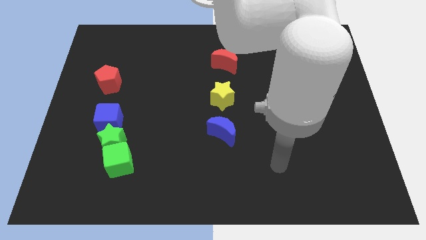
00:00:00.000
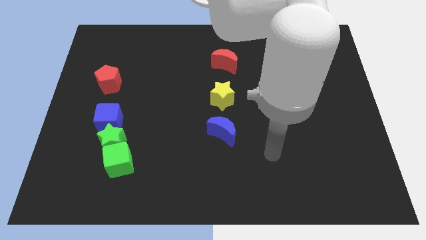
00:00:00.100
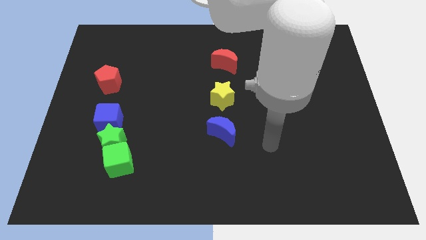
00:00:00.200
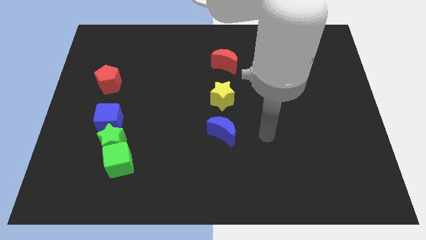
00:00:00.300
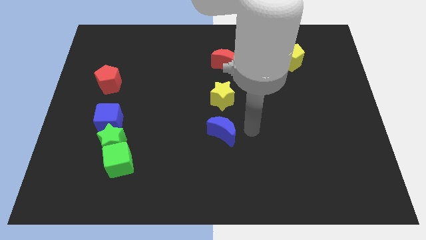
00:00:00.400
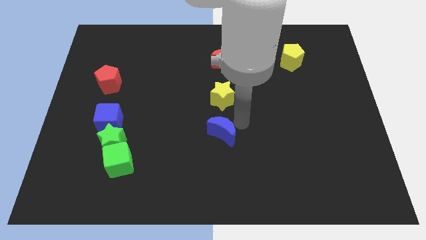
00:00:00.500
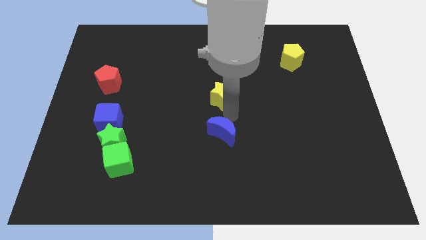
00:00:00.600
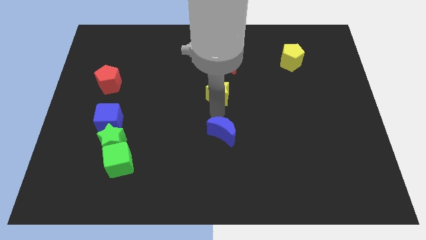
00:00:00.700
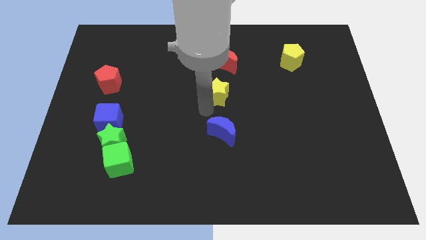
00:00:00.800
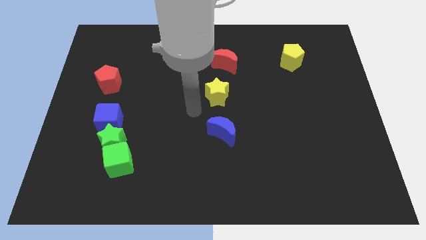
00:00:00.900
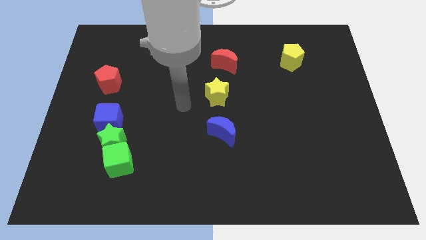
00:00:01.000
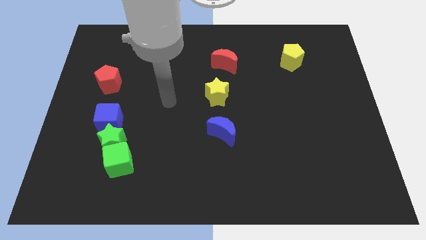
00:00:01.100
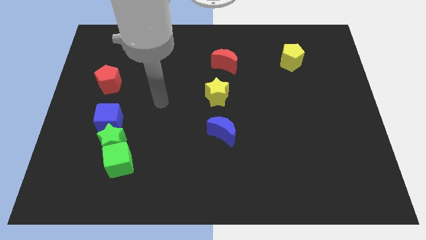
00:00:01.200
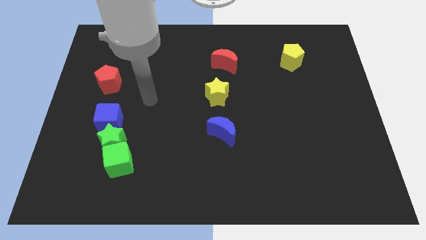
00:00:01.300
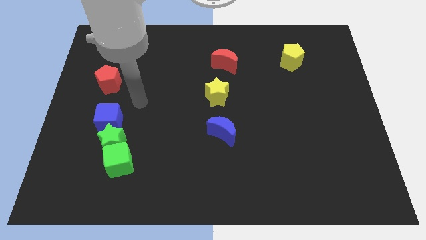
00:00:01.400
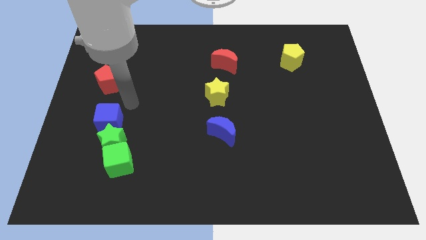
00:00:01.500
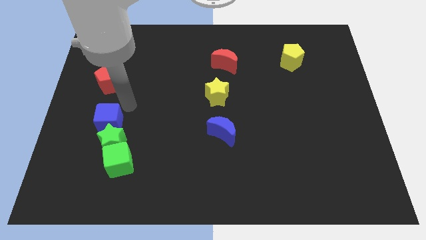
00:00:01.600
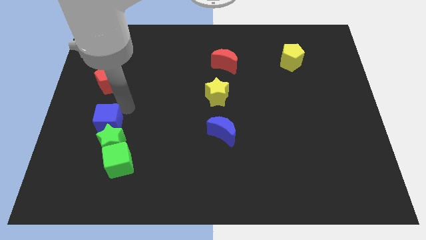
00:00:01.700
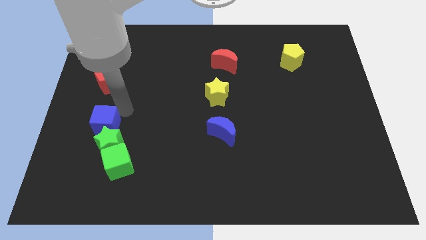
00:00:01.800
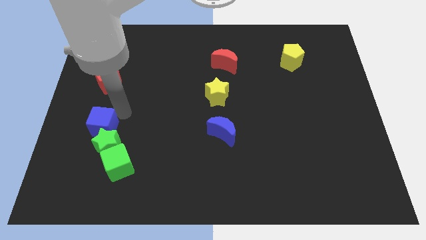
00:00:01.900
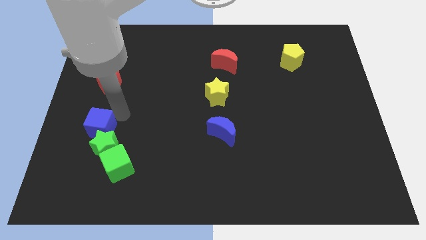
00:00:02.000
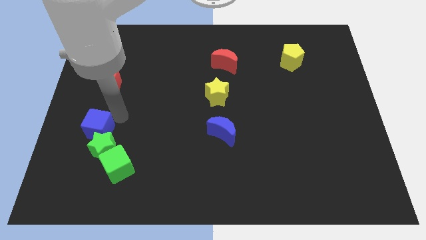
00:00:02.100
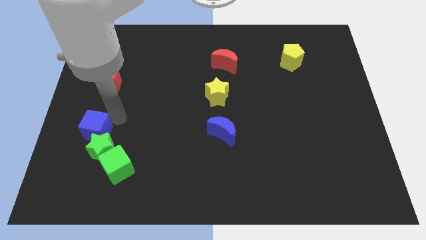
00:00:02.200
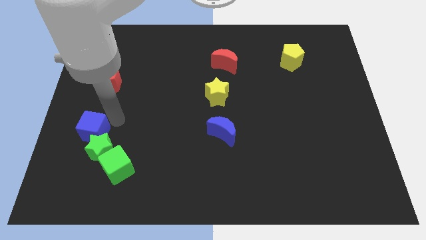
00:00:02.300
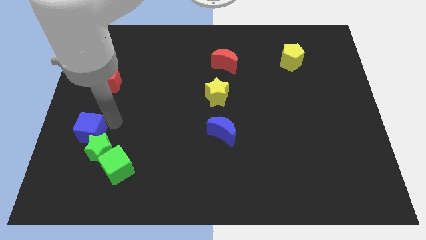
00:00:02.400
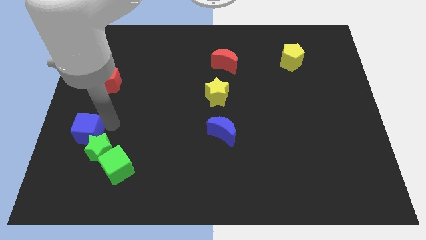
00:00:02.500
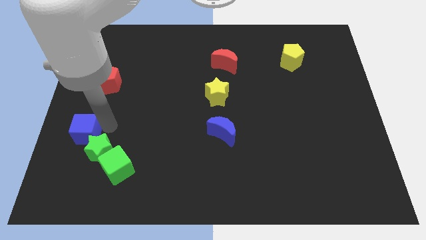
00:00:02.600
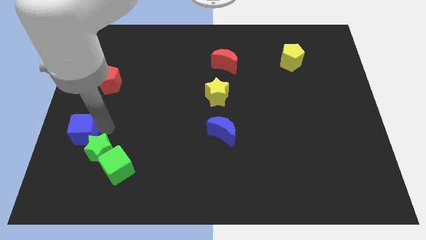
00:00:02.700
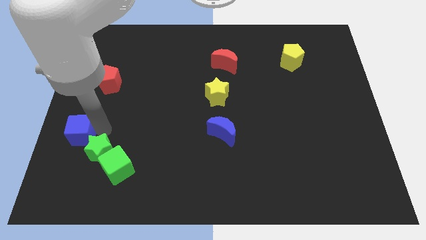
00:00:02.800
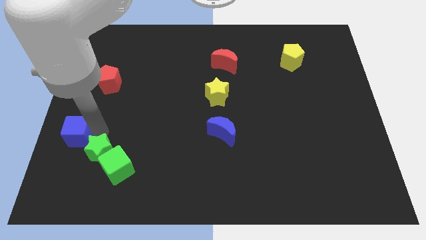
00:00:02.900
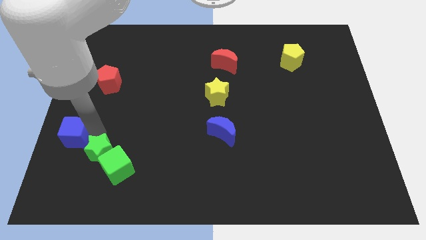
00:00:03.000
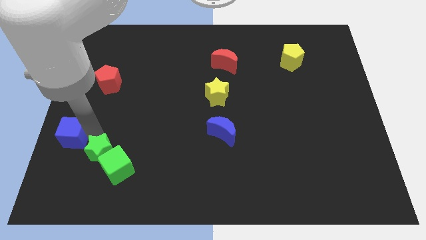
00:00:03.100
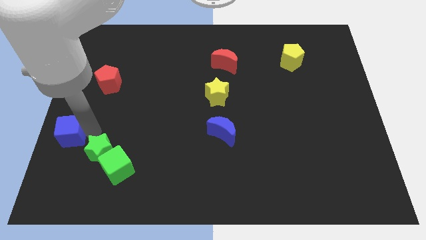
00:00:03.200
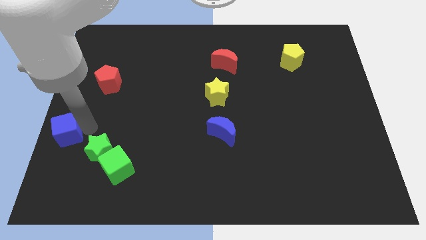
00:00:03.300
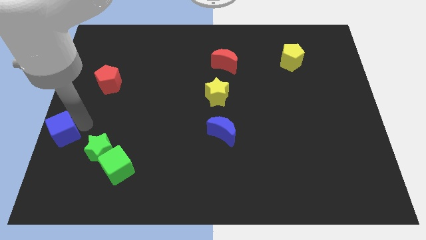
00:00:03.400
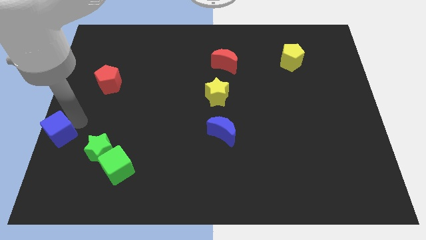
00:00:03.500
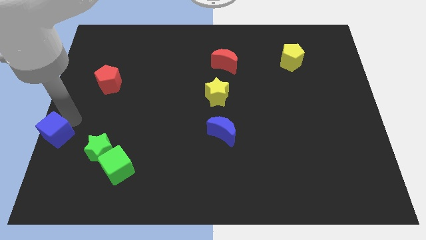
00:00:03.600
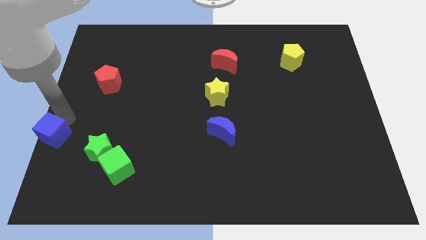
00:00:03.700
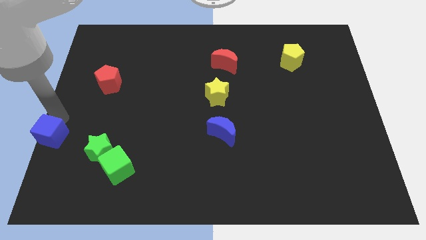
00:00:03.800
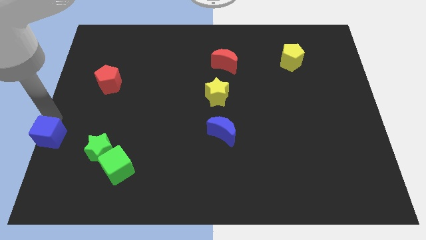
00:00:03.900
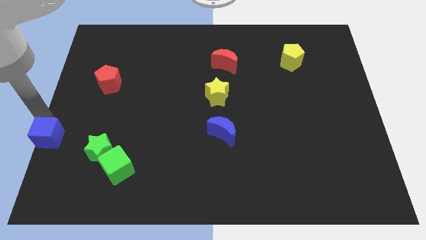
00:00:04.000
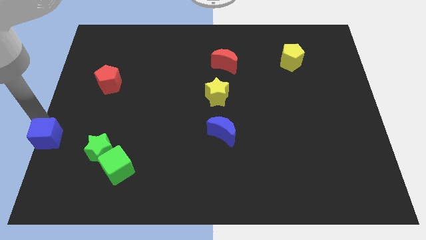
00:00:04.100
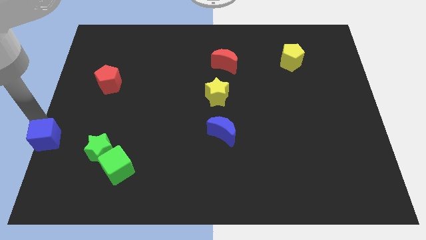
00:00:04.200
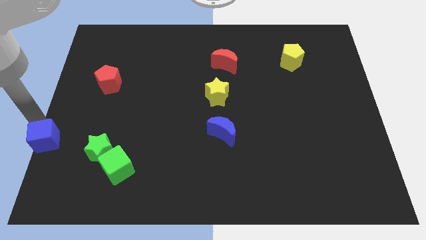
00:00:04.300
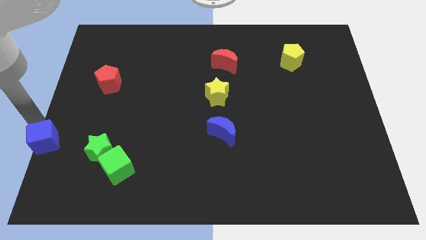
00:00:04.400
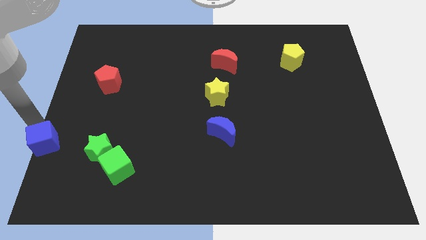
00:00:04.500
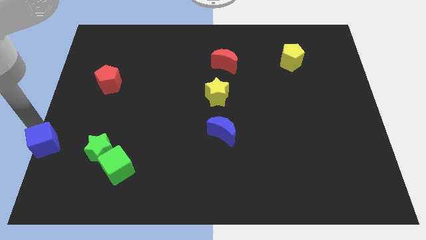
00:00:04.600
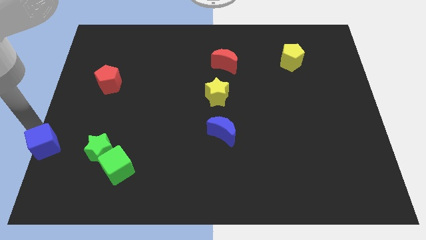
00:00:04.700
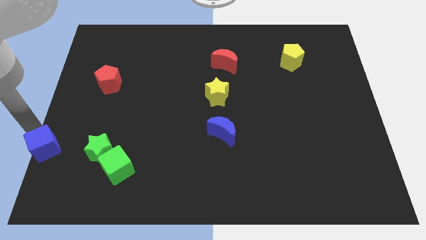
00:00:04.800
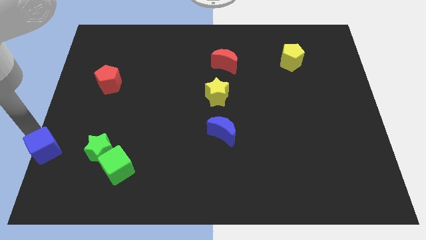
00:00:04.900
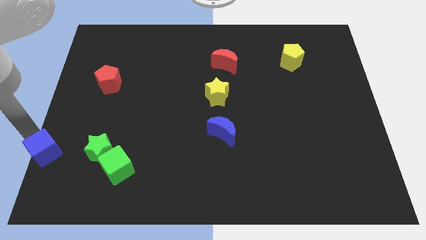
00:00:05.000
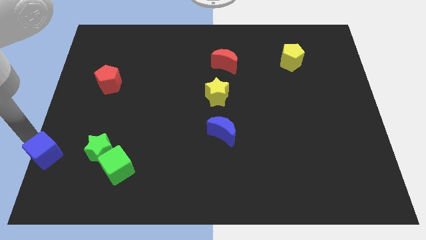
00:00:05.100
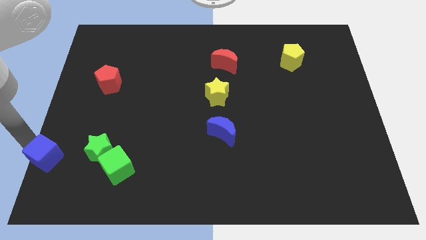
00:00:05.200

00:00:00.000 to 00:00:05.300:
slide the blue cube to the bottom left corner

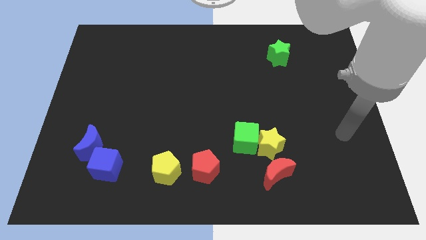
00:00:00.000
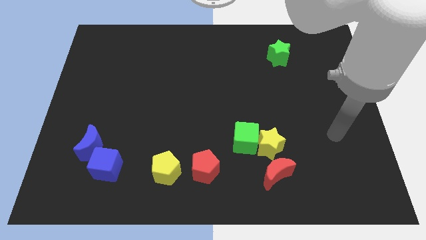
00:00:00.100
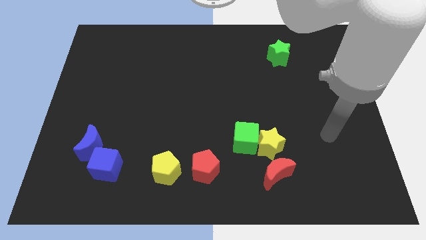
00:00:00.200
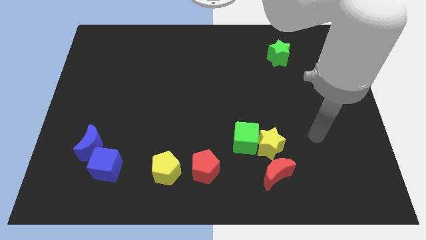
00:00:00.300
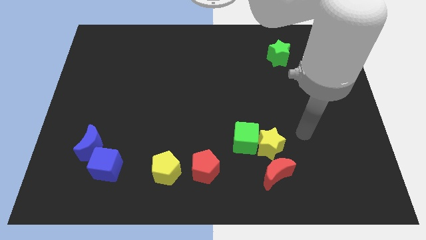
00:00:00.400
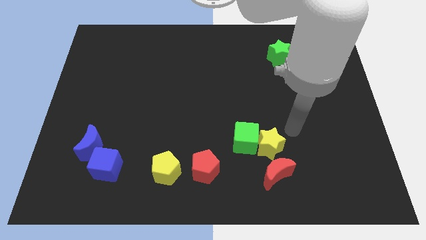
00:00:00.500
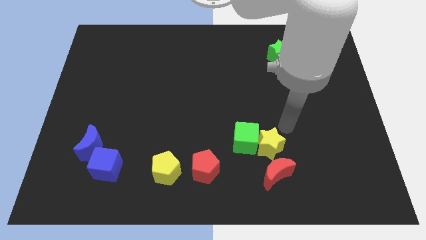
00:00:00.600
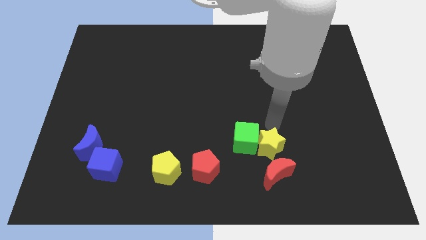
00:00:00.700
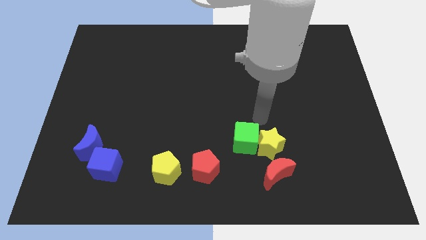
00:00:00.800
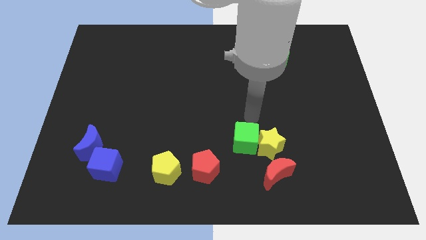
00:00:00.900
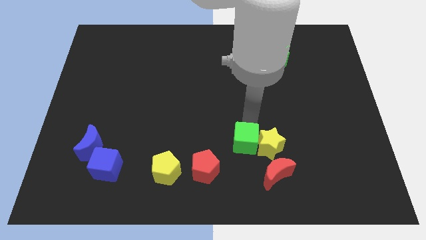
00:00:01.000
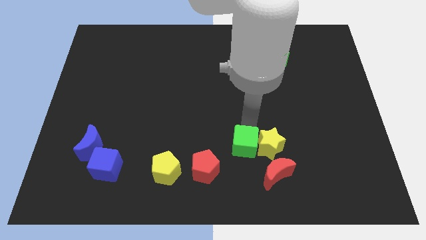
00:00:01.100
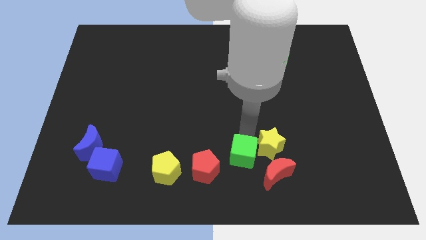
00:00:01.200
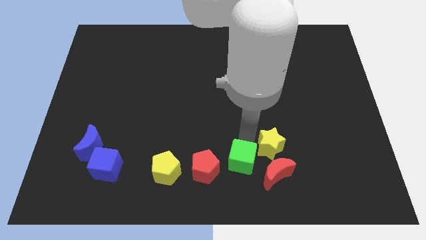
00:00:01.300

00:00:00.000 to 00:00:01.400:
put the green cube to the bottom

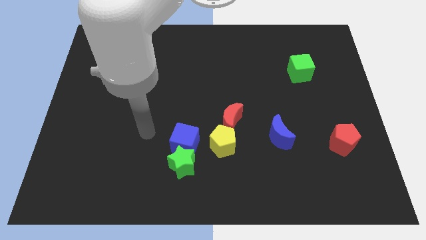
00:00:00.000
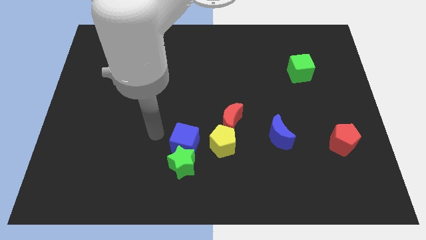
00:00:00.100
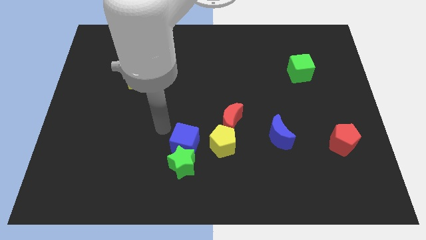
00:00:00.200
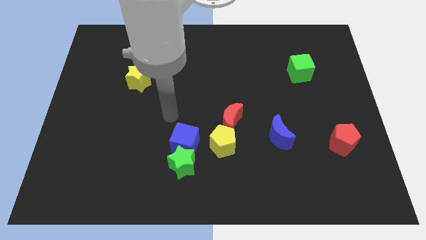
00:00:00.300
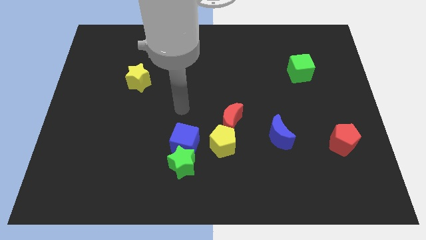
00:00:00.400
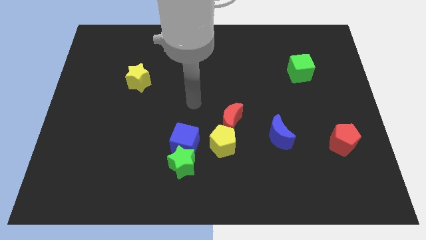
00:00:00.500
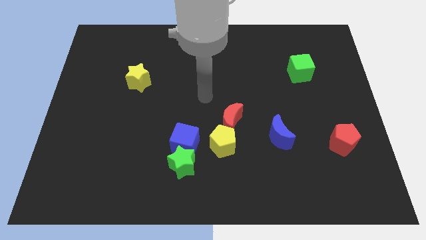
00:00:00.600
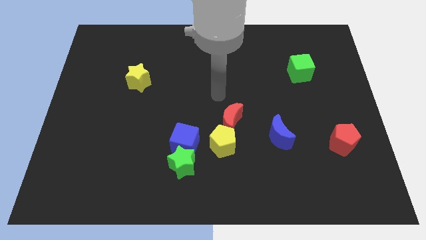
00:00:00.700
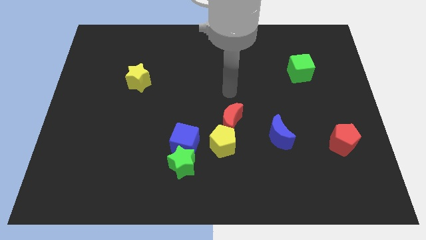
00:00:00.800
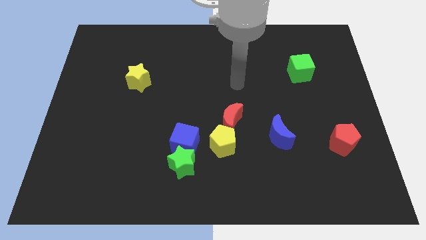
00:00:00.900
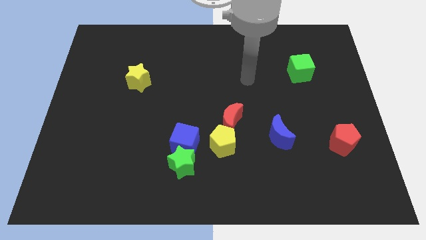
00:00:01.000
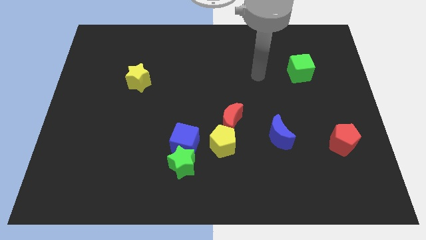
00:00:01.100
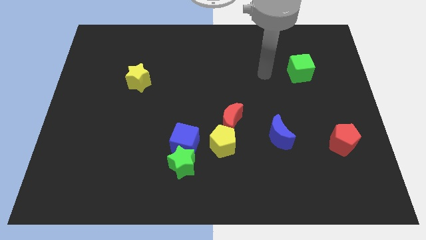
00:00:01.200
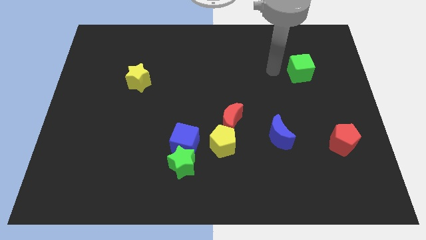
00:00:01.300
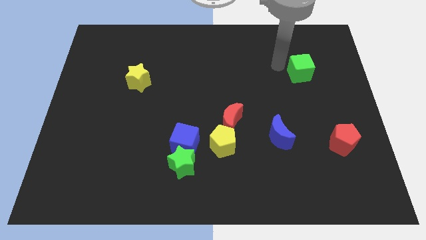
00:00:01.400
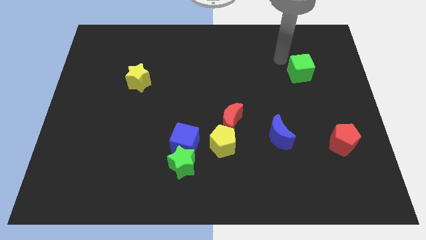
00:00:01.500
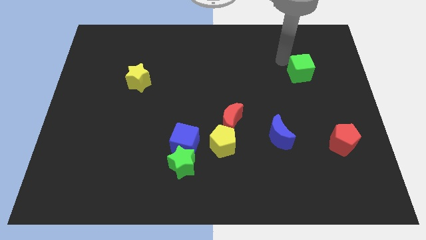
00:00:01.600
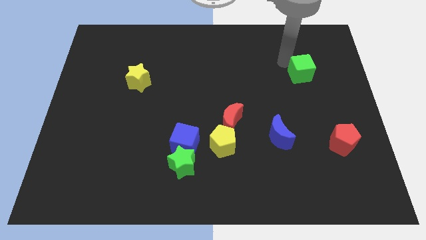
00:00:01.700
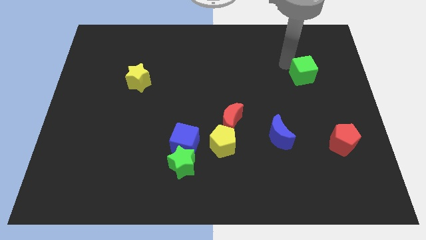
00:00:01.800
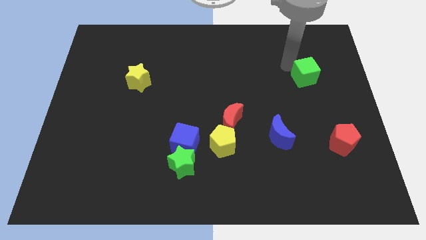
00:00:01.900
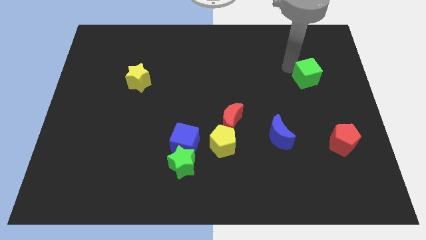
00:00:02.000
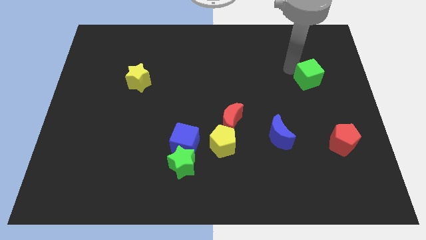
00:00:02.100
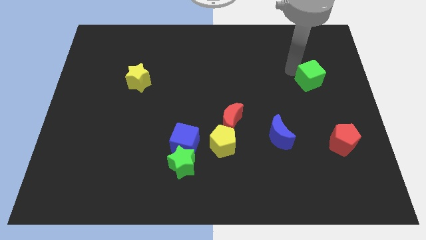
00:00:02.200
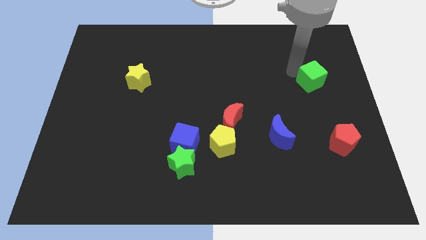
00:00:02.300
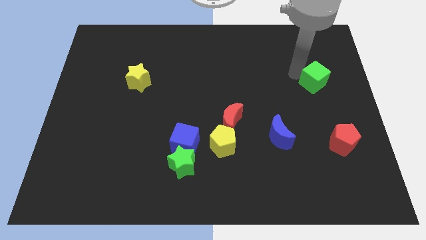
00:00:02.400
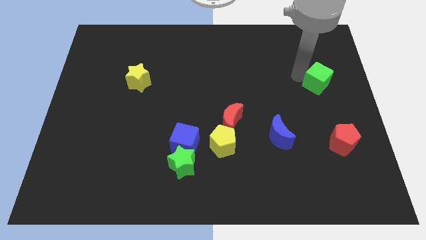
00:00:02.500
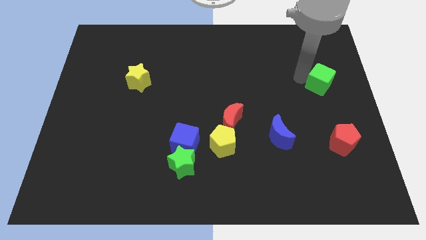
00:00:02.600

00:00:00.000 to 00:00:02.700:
slide the green cube to the center right
